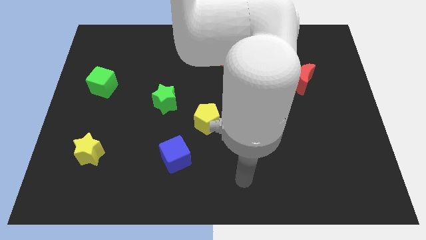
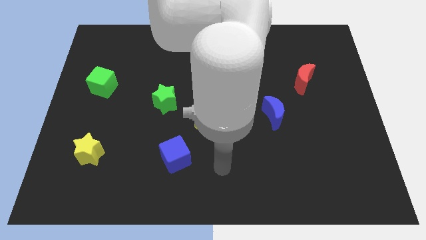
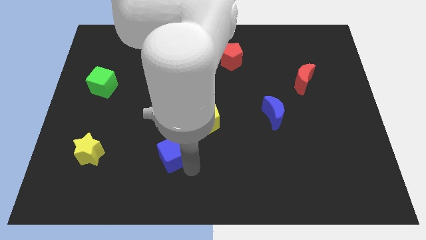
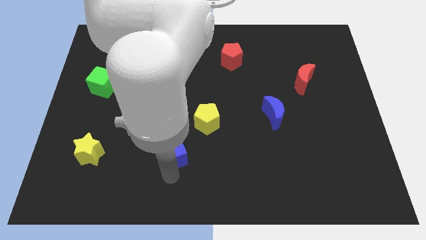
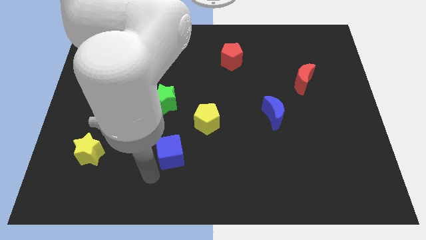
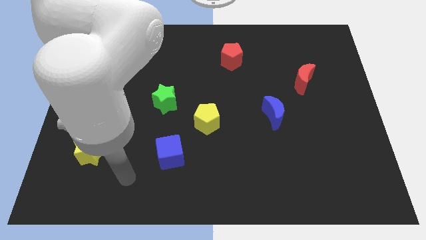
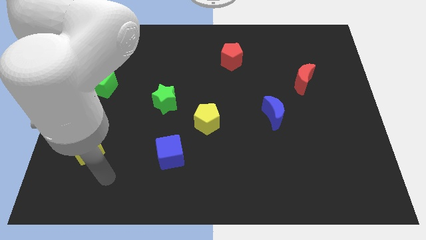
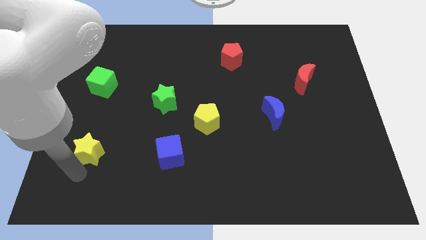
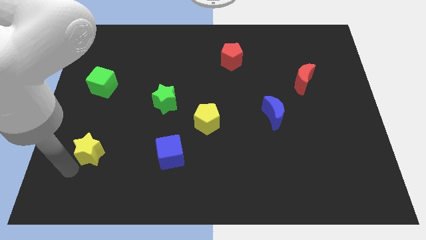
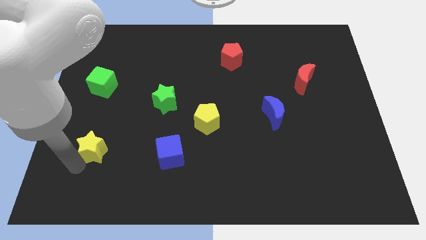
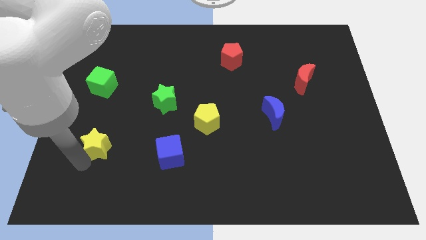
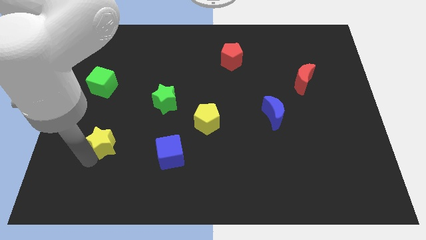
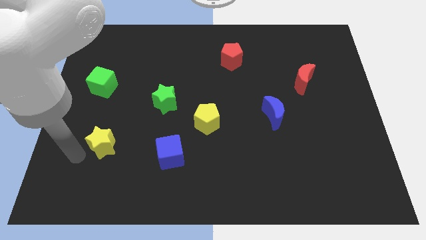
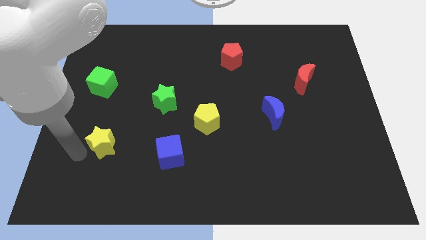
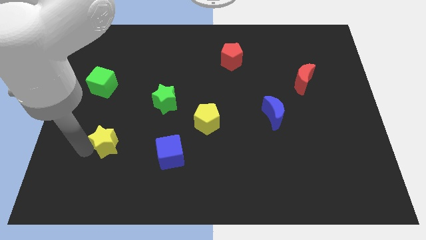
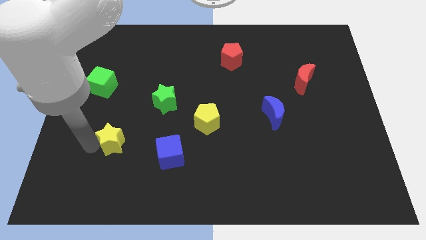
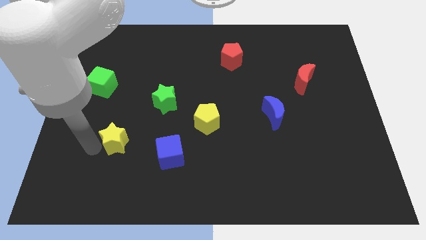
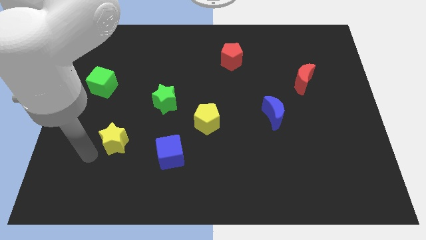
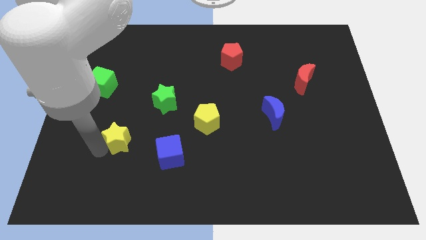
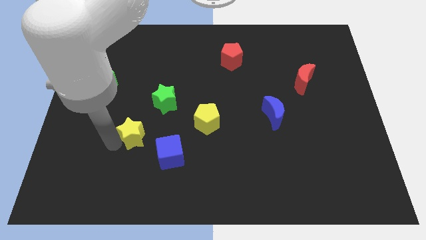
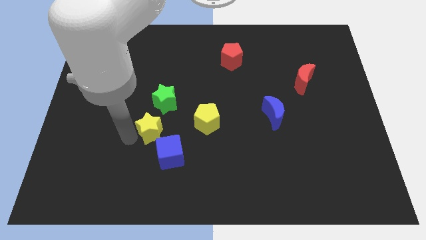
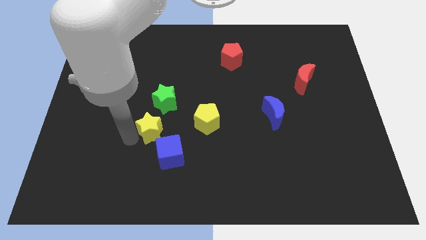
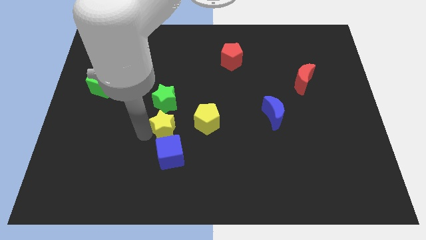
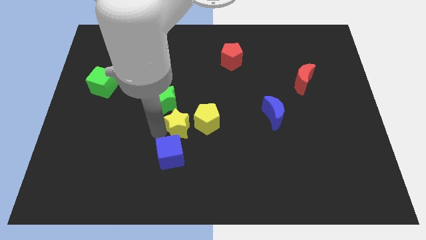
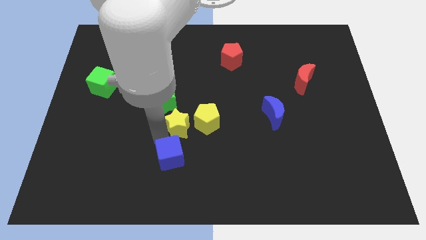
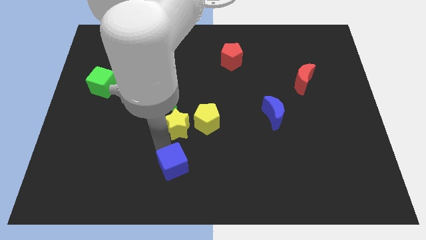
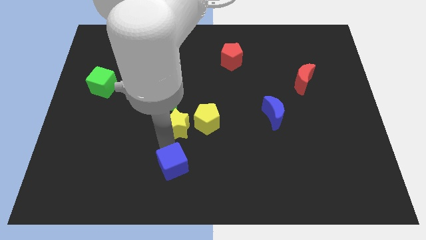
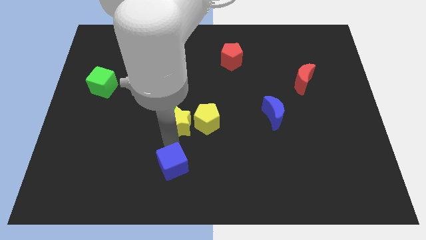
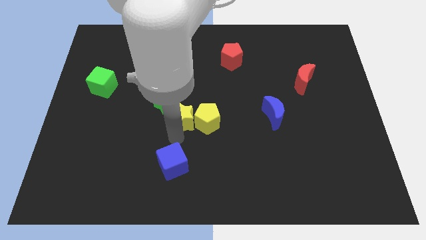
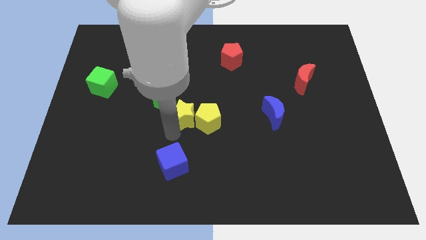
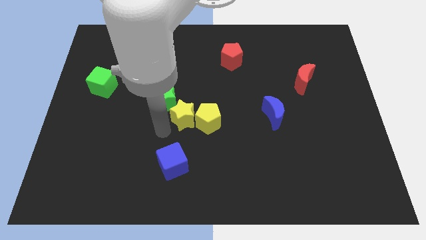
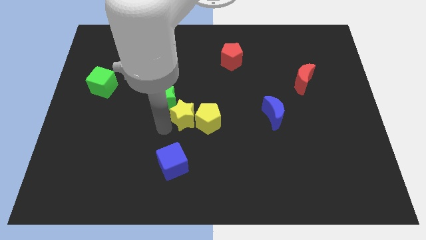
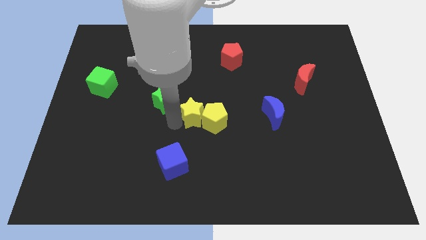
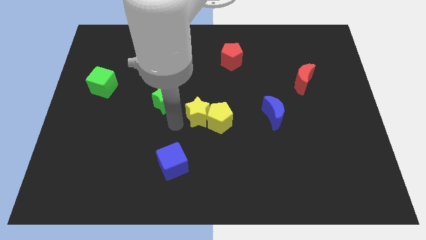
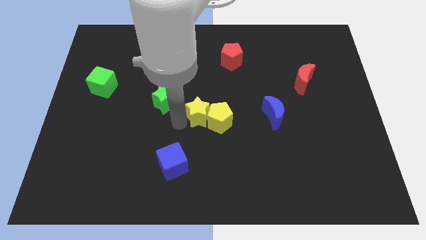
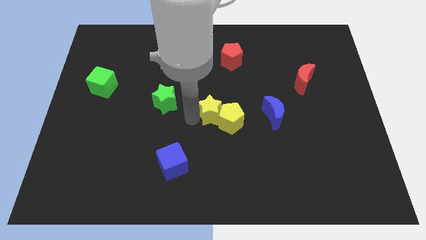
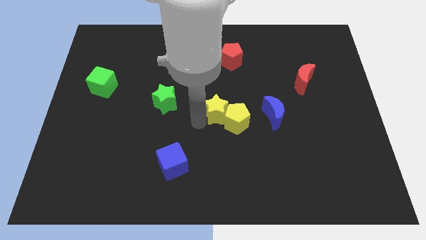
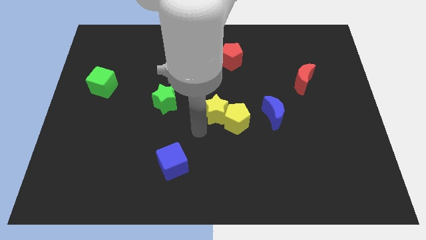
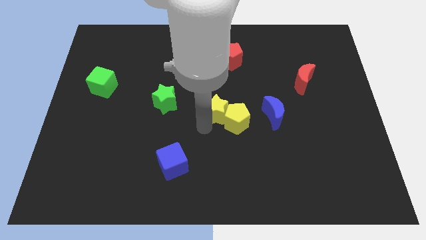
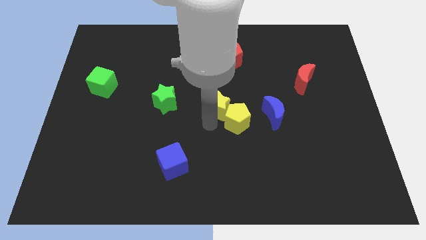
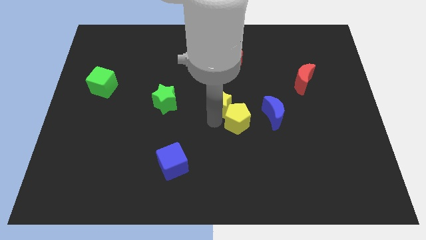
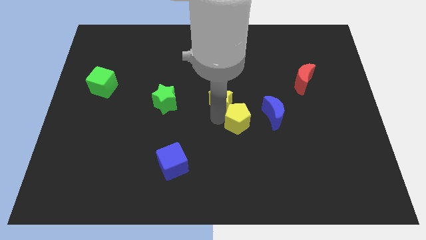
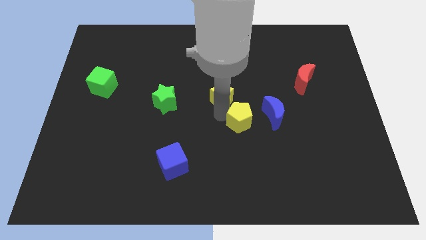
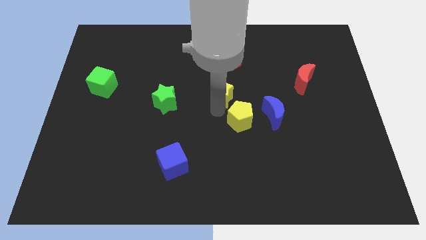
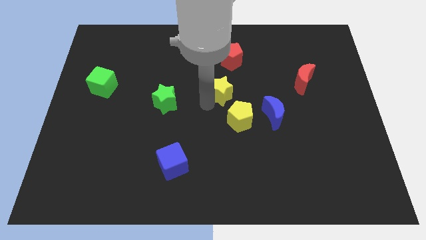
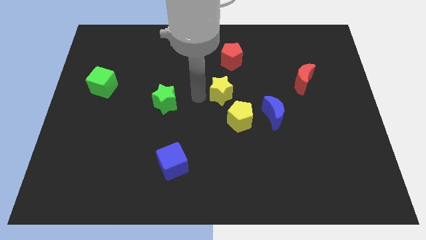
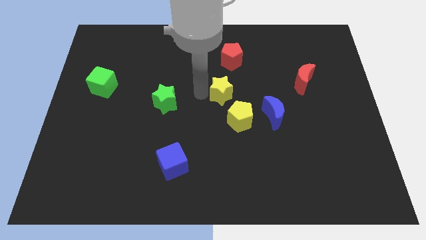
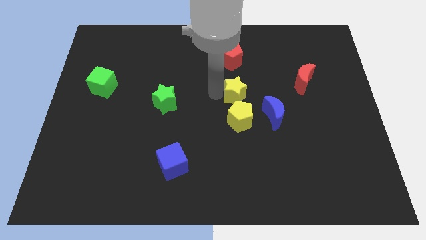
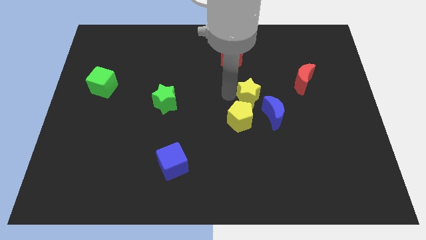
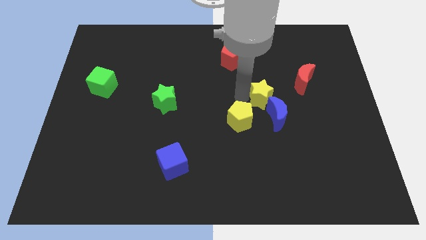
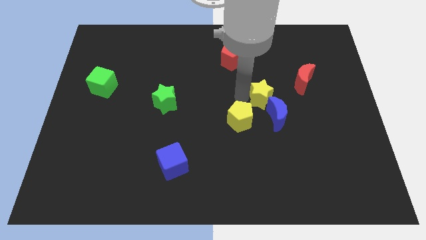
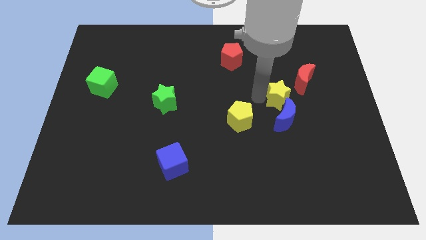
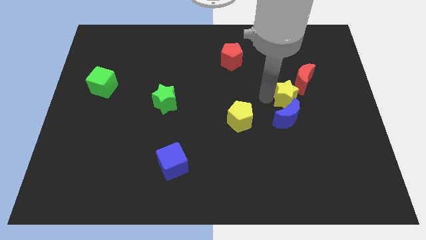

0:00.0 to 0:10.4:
put the yellow star diagonally up and to the right of the blue moon

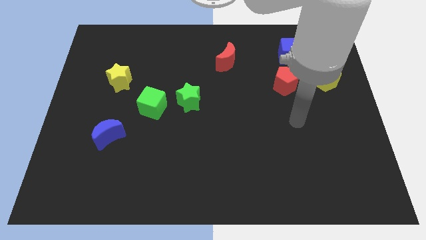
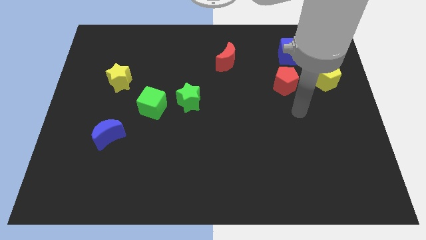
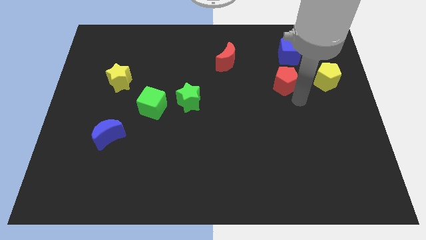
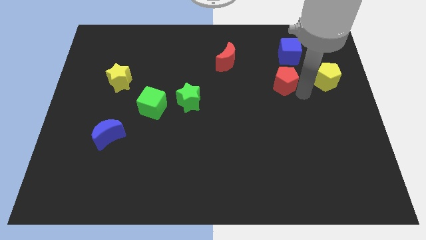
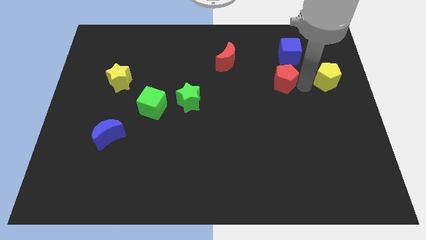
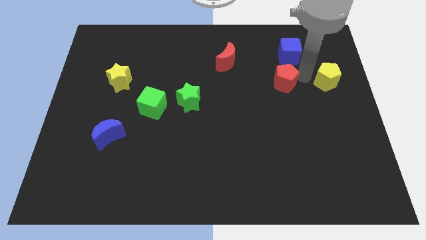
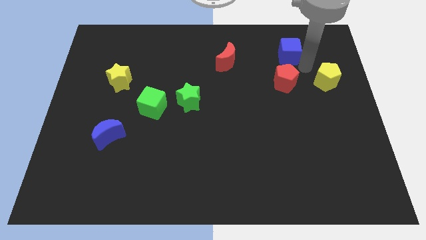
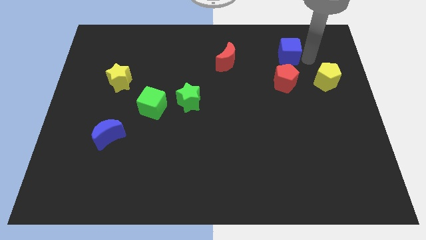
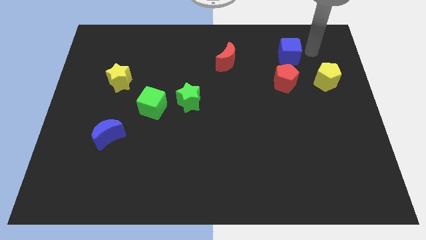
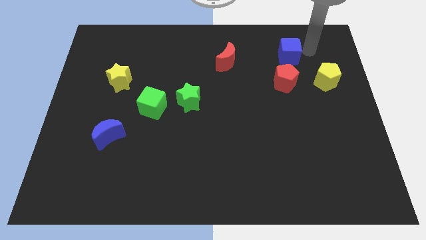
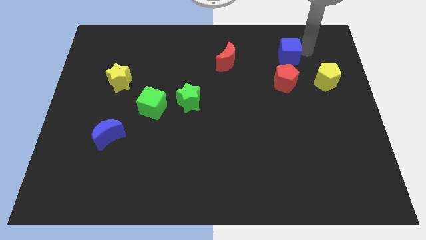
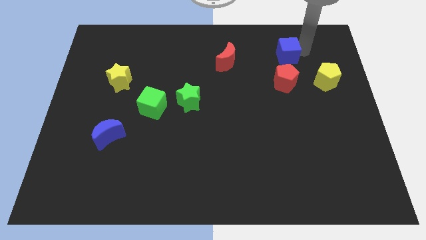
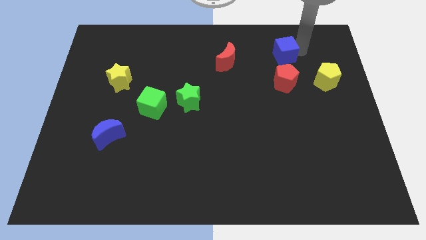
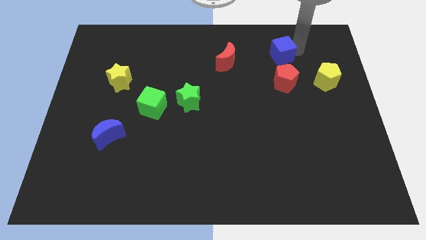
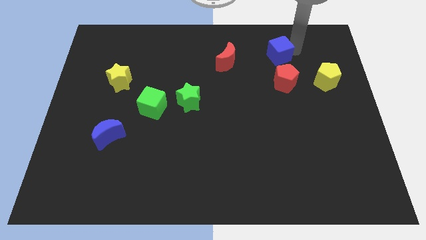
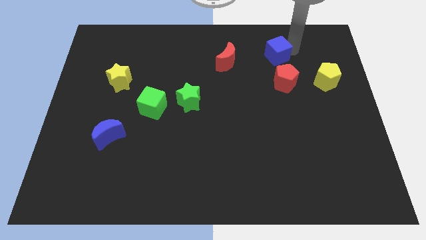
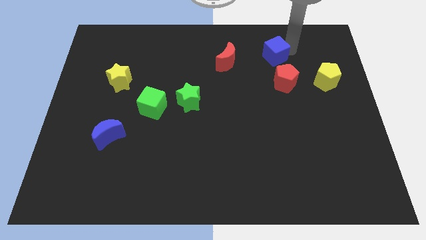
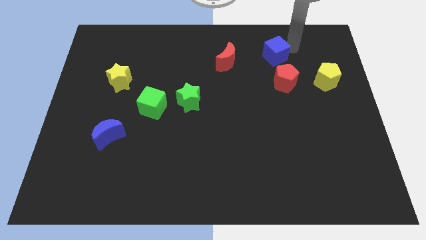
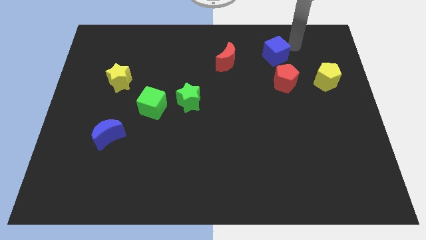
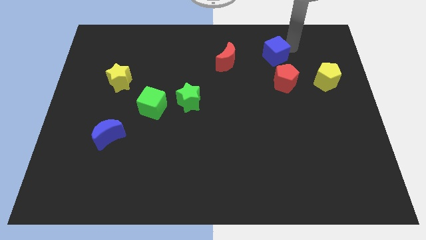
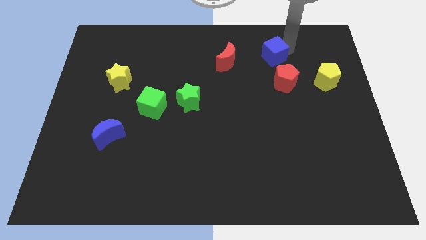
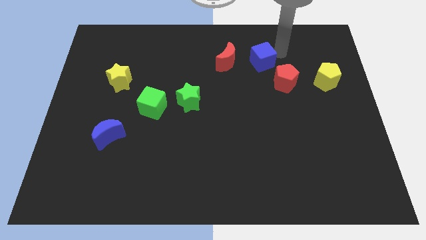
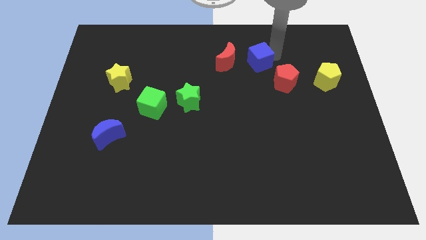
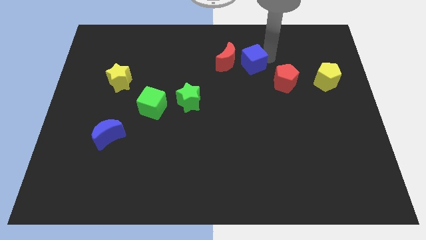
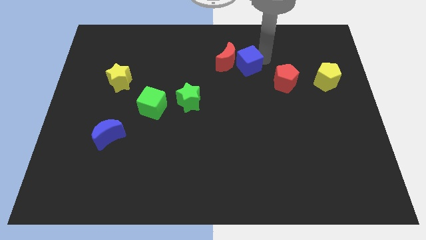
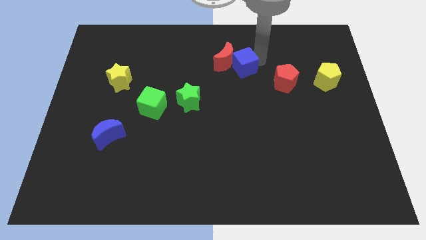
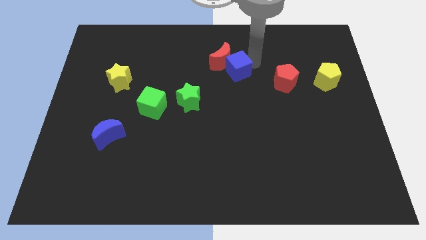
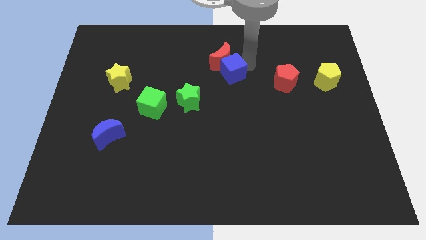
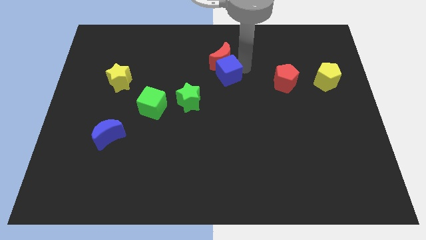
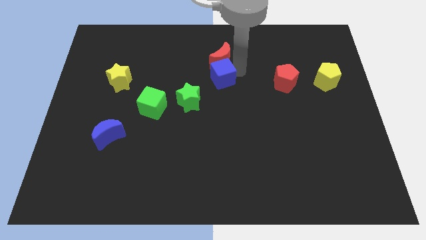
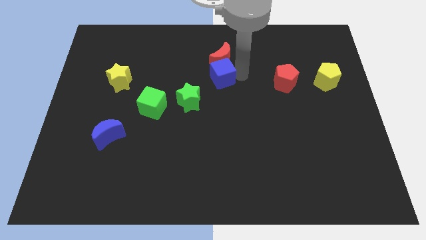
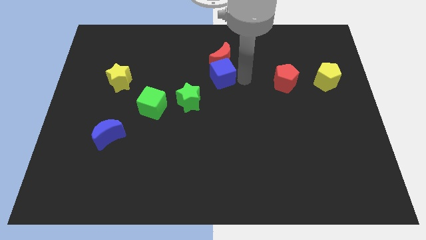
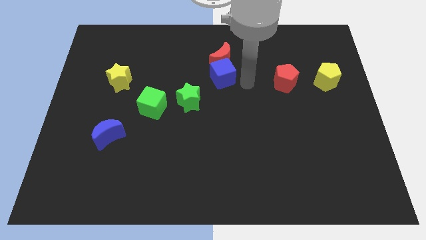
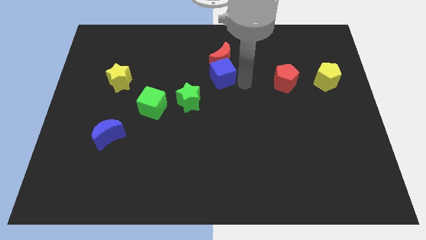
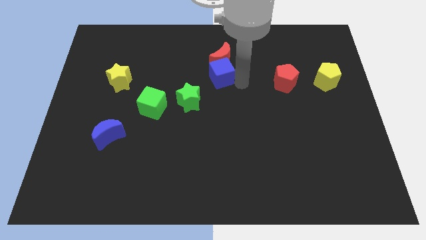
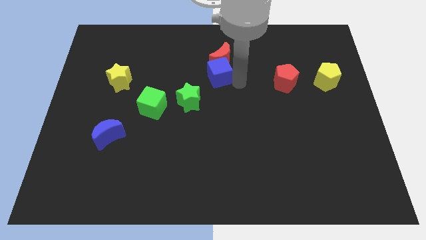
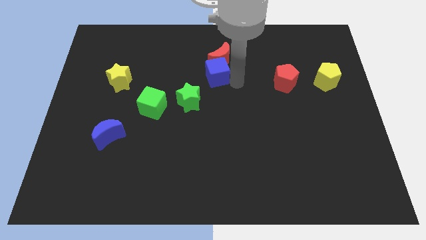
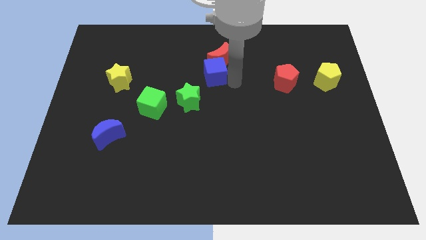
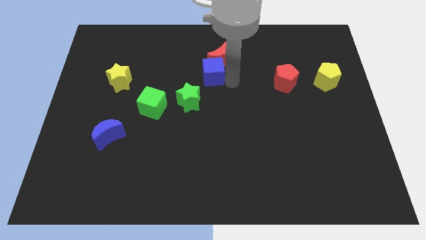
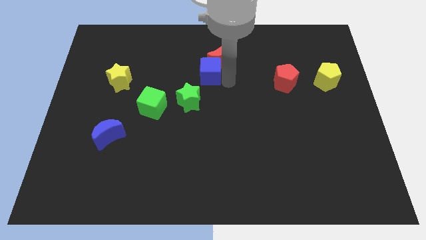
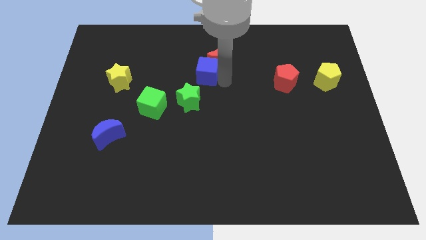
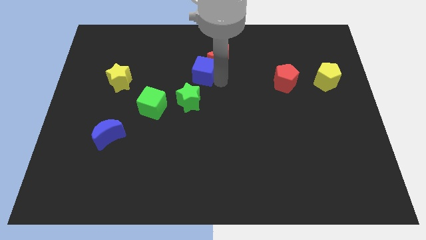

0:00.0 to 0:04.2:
push the blue cube just left of the red moon
